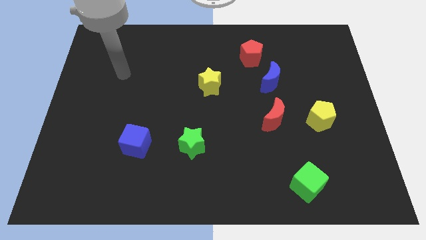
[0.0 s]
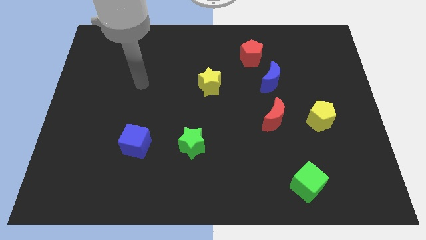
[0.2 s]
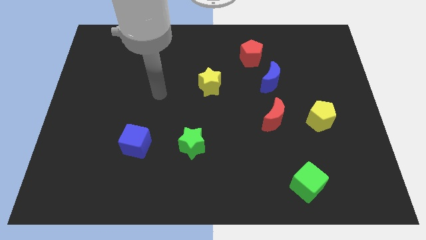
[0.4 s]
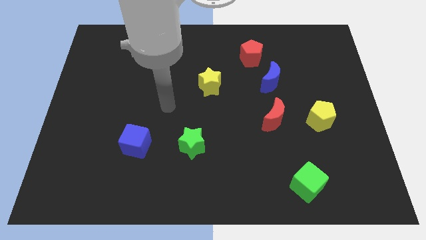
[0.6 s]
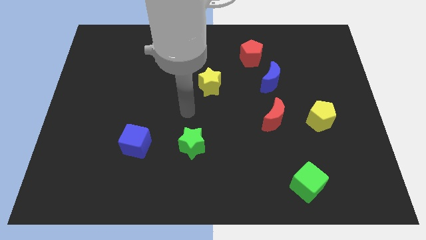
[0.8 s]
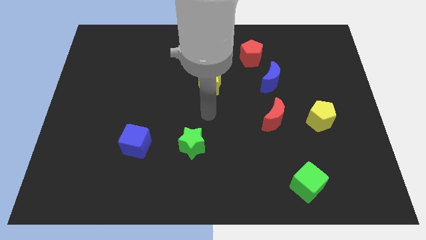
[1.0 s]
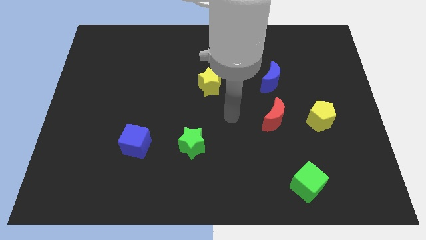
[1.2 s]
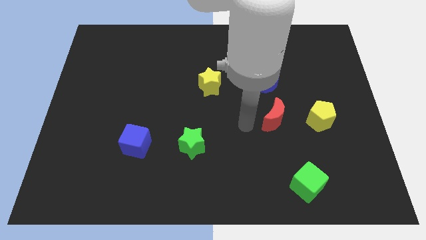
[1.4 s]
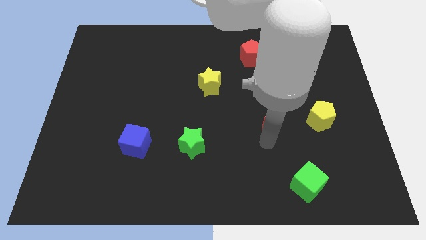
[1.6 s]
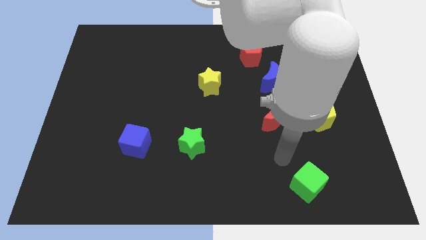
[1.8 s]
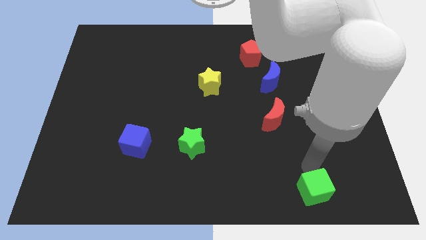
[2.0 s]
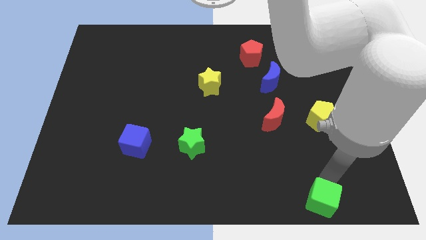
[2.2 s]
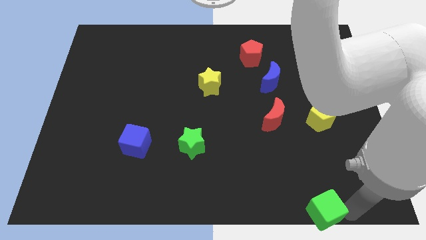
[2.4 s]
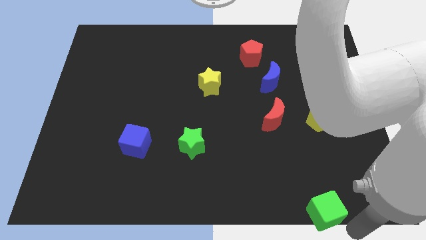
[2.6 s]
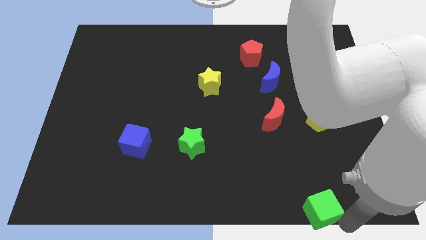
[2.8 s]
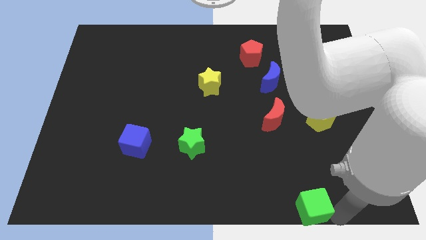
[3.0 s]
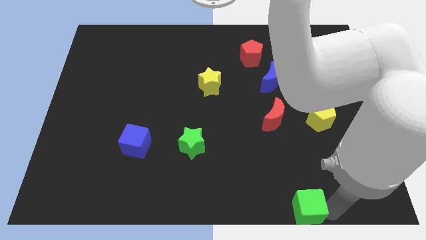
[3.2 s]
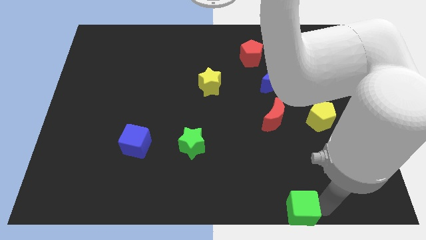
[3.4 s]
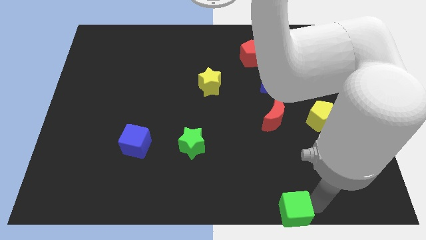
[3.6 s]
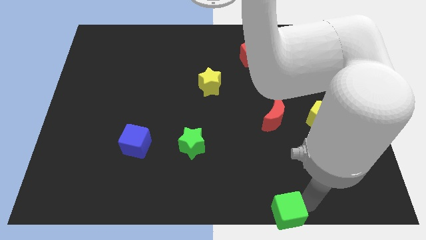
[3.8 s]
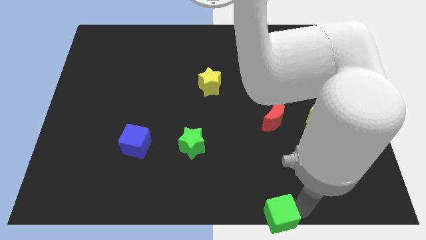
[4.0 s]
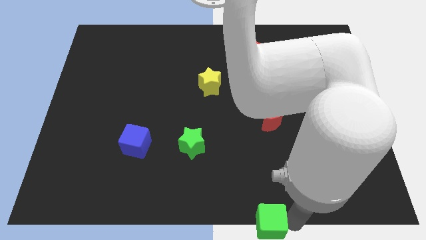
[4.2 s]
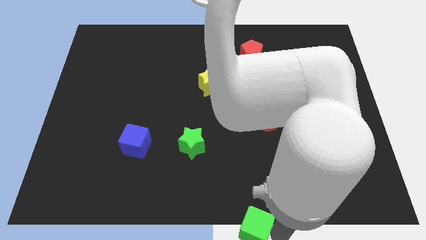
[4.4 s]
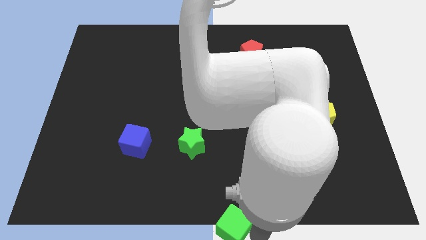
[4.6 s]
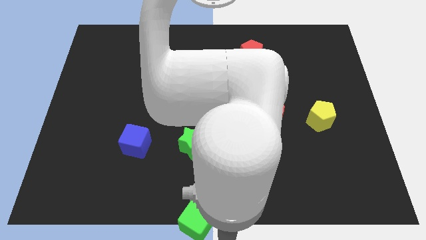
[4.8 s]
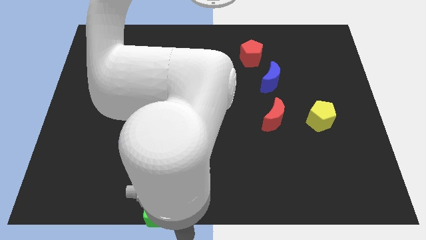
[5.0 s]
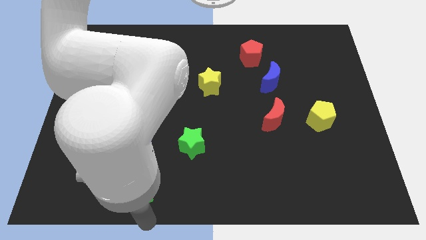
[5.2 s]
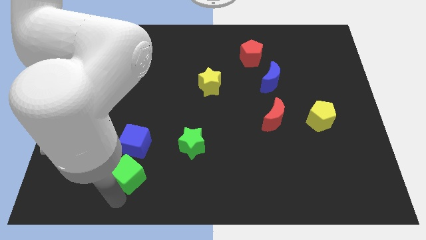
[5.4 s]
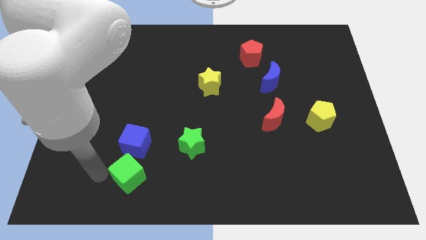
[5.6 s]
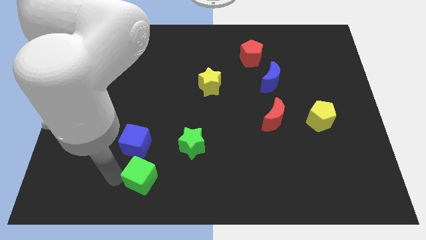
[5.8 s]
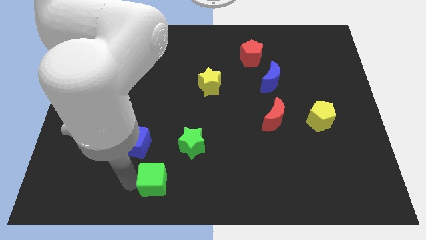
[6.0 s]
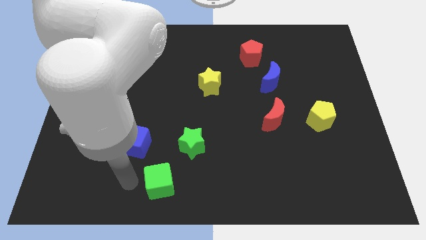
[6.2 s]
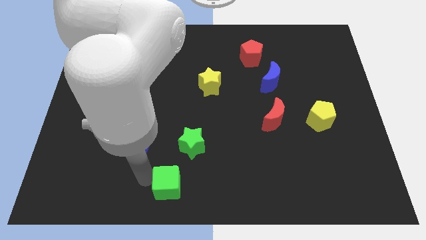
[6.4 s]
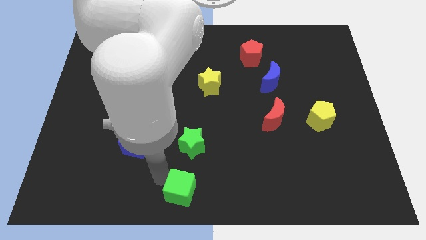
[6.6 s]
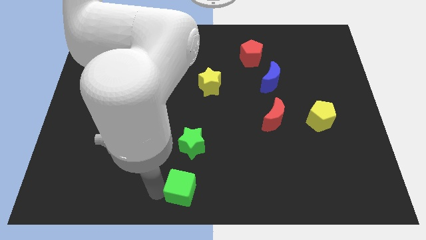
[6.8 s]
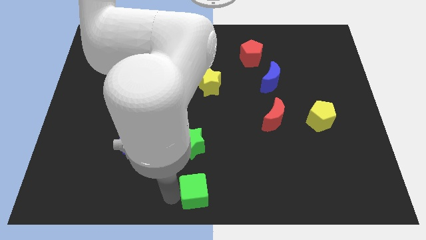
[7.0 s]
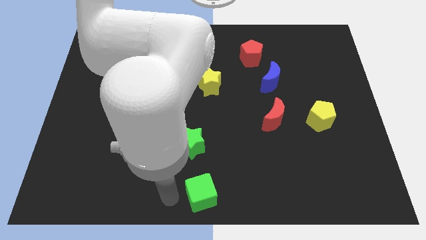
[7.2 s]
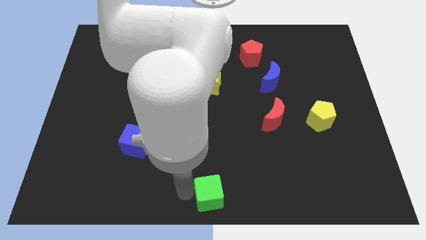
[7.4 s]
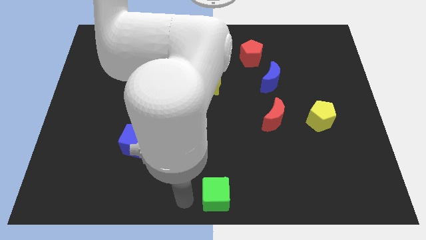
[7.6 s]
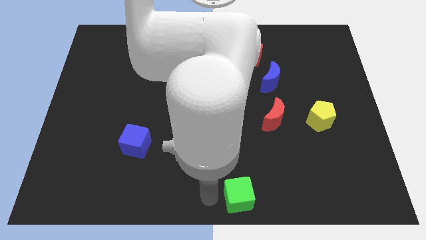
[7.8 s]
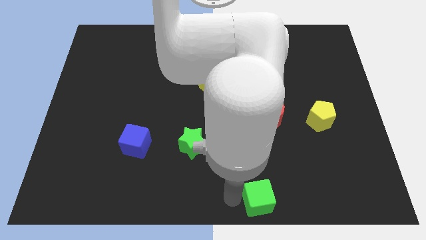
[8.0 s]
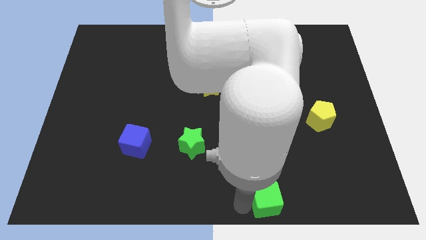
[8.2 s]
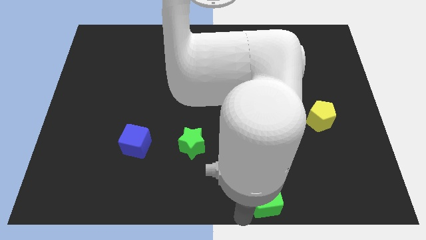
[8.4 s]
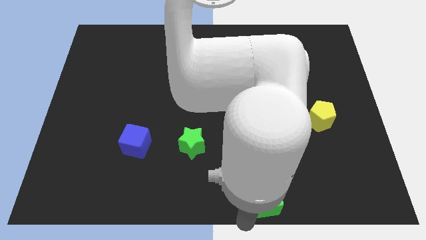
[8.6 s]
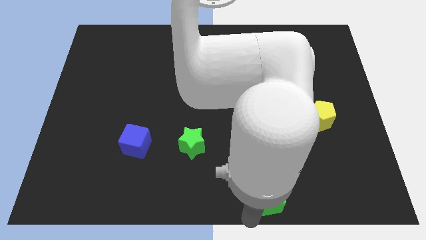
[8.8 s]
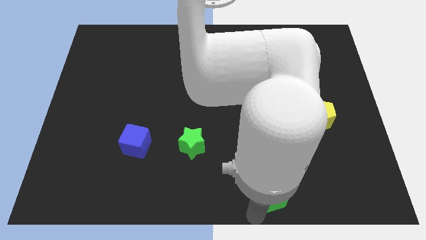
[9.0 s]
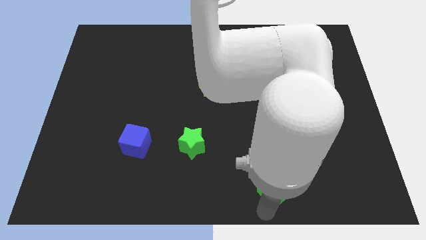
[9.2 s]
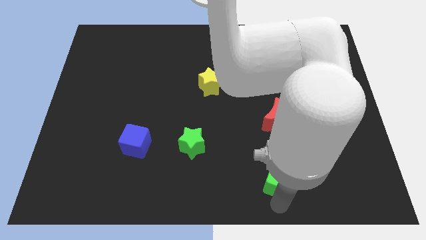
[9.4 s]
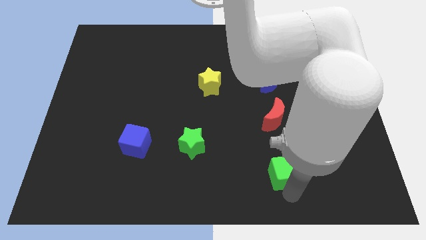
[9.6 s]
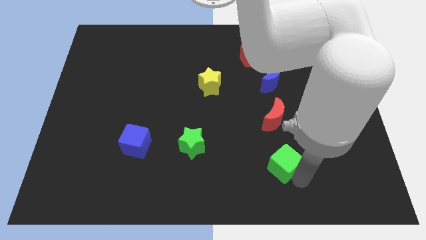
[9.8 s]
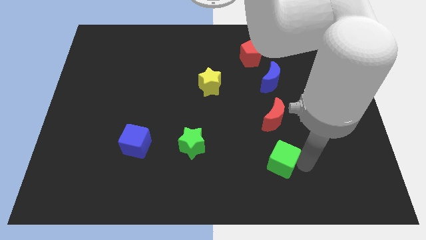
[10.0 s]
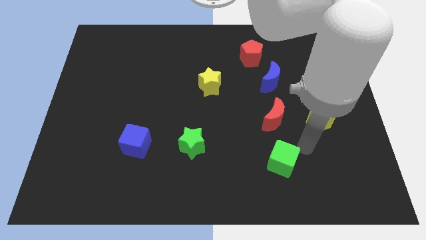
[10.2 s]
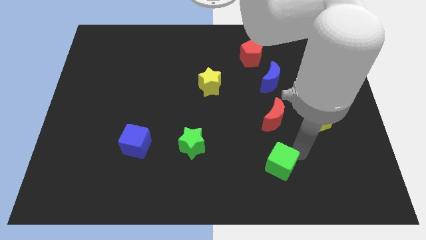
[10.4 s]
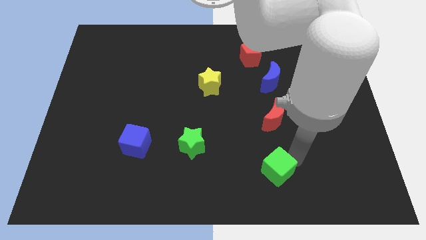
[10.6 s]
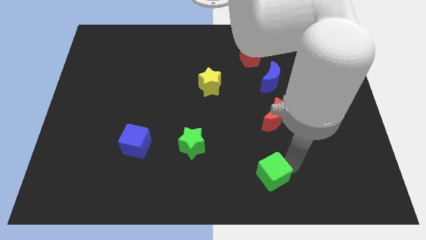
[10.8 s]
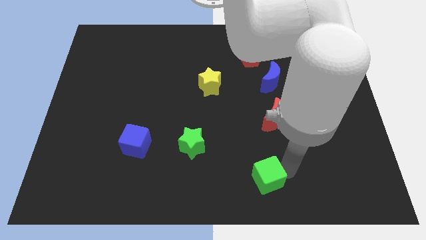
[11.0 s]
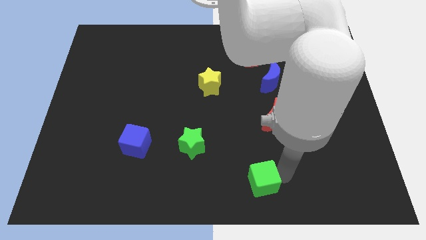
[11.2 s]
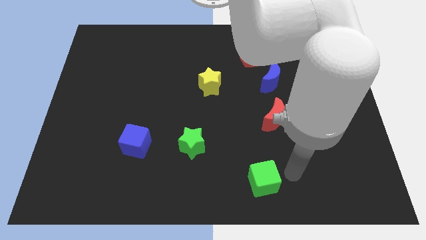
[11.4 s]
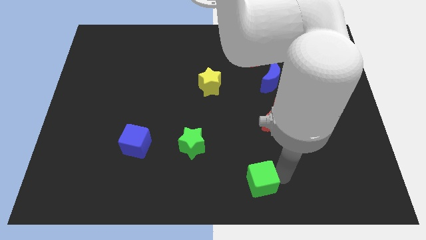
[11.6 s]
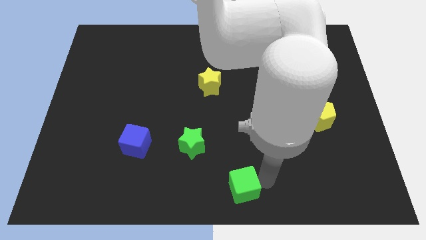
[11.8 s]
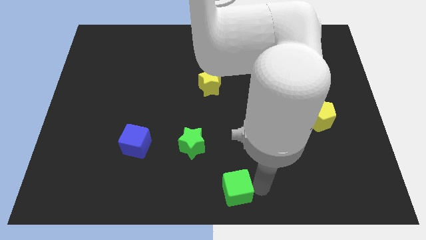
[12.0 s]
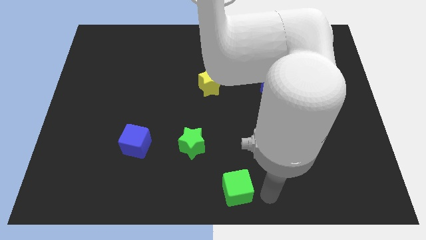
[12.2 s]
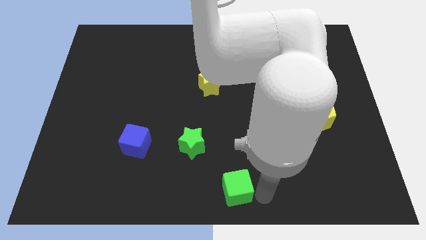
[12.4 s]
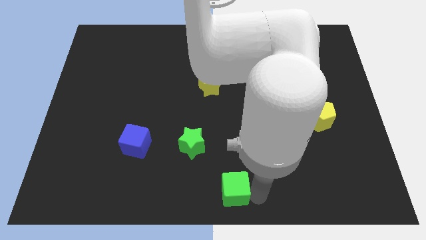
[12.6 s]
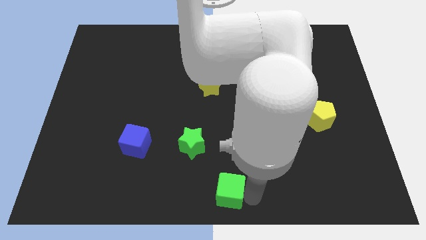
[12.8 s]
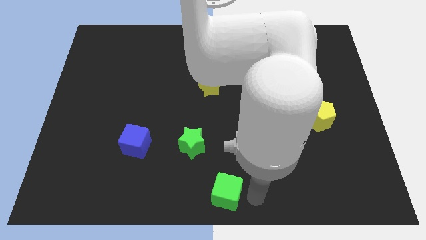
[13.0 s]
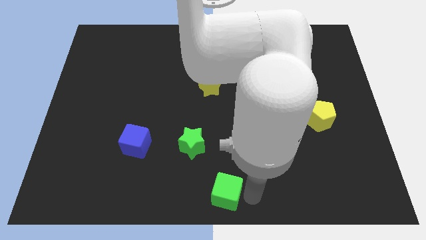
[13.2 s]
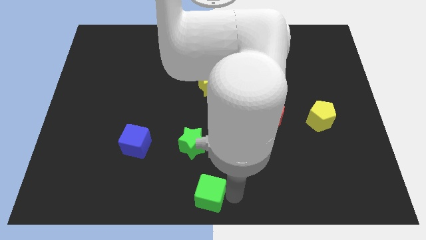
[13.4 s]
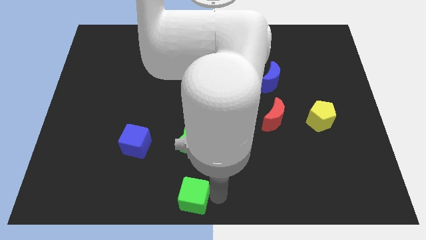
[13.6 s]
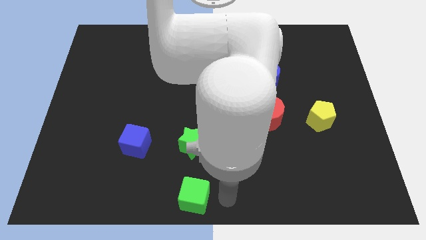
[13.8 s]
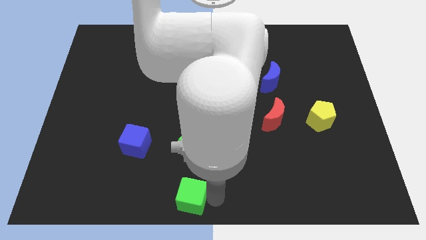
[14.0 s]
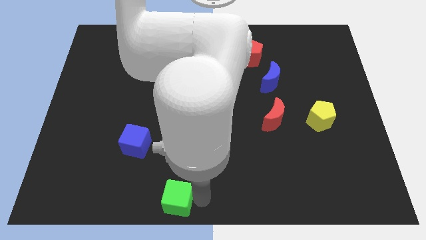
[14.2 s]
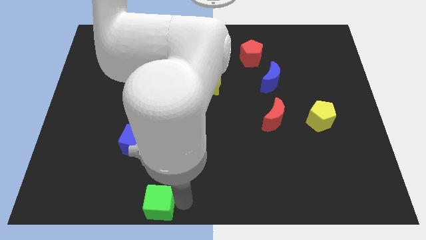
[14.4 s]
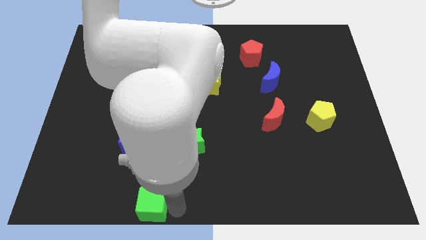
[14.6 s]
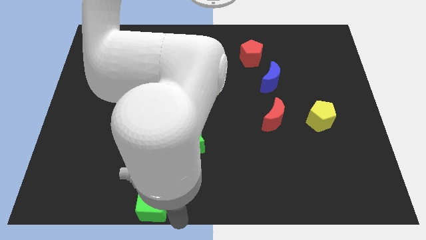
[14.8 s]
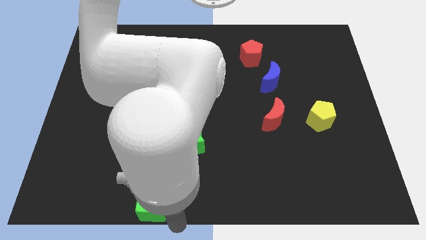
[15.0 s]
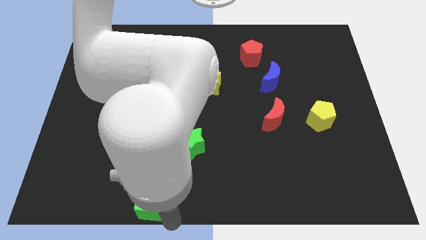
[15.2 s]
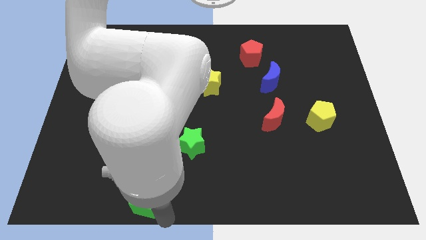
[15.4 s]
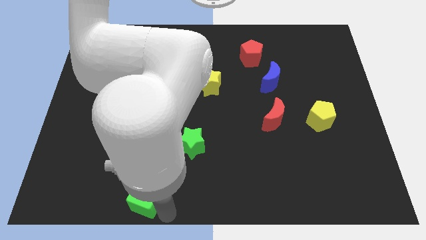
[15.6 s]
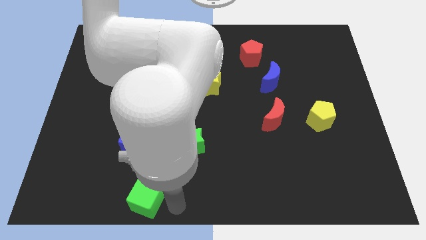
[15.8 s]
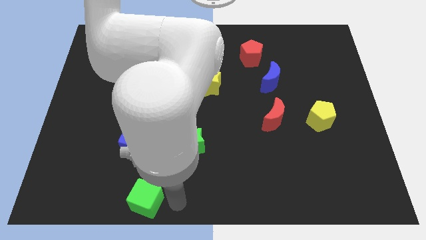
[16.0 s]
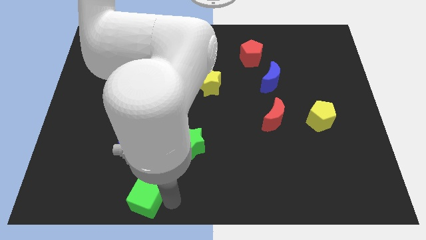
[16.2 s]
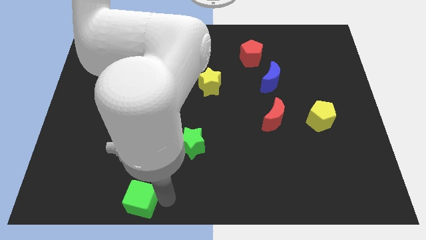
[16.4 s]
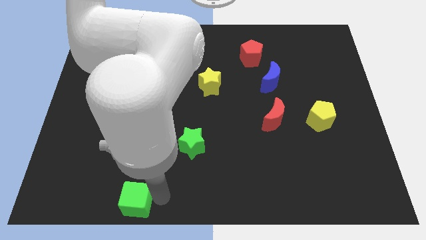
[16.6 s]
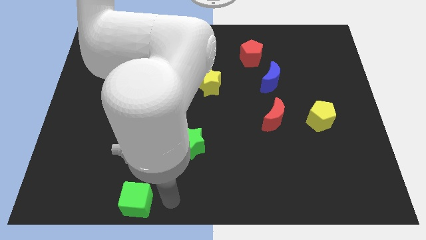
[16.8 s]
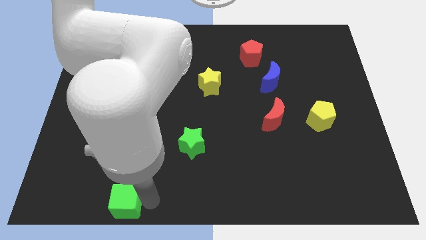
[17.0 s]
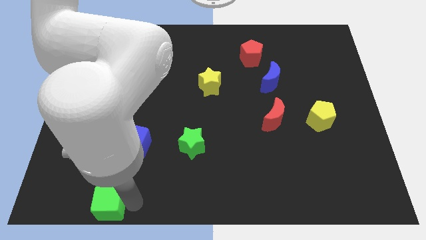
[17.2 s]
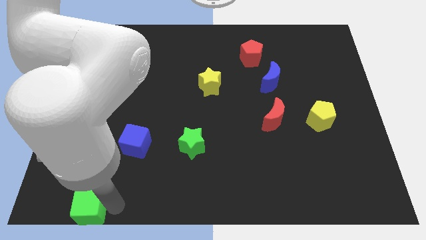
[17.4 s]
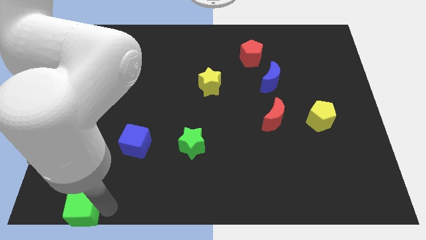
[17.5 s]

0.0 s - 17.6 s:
put the green cube to the bottom left
